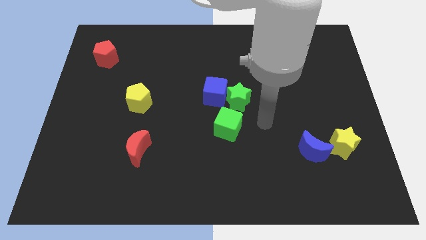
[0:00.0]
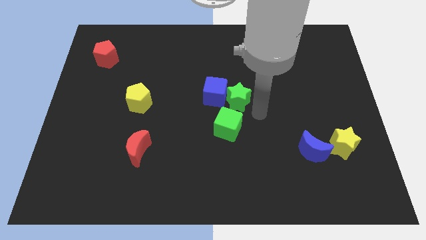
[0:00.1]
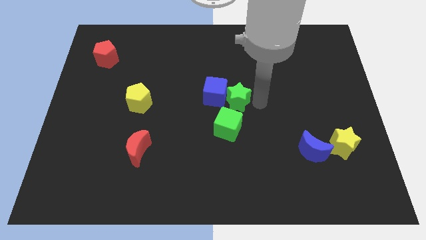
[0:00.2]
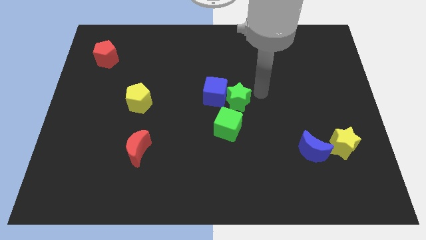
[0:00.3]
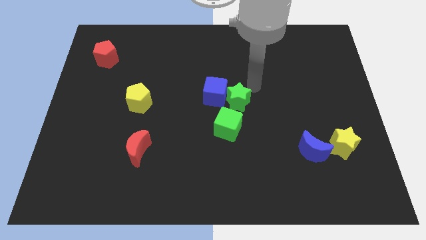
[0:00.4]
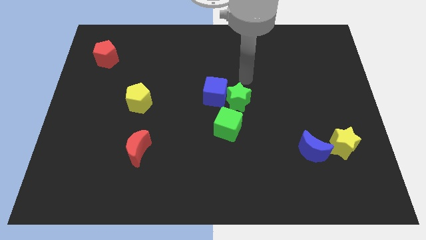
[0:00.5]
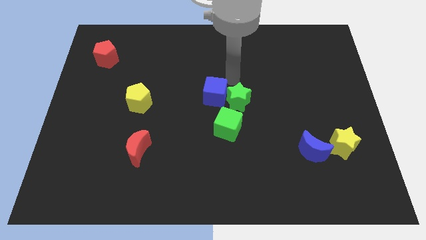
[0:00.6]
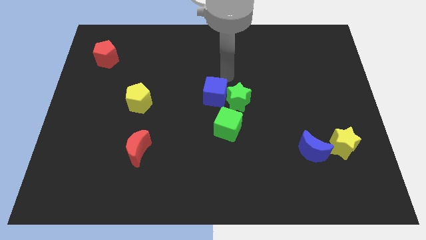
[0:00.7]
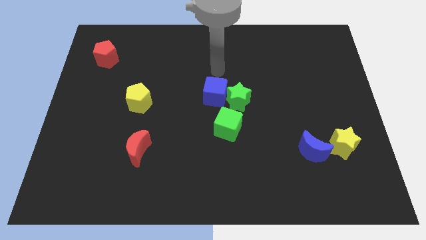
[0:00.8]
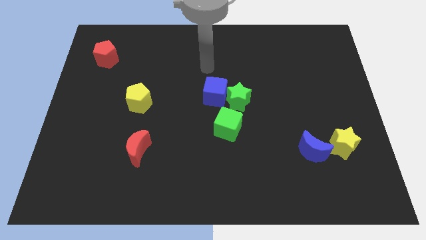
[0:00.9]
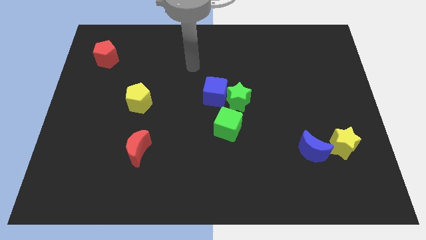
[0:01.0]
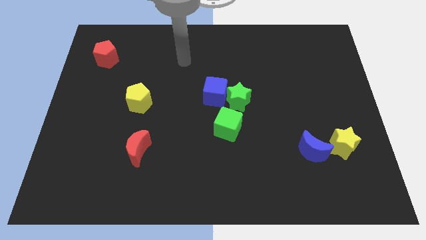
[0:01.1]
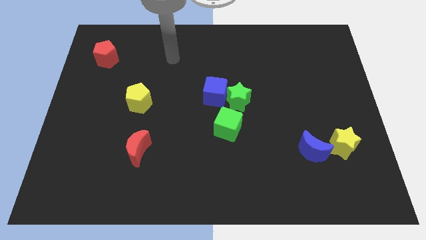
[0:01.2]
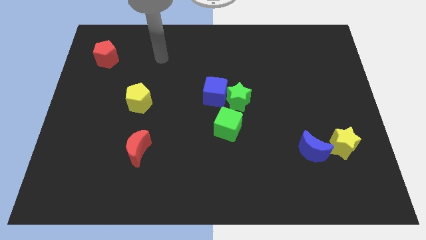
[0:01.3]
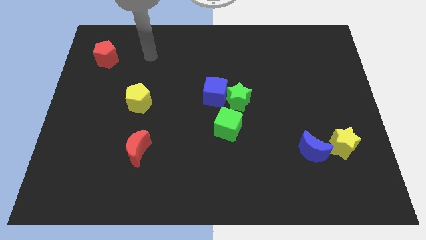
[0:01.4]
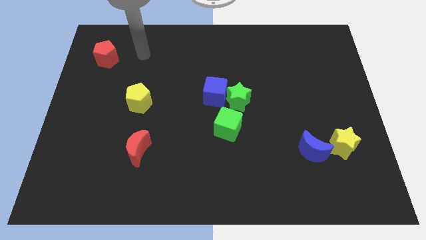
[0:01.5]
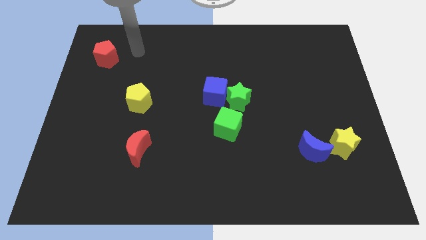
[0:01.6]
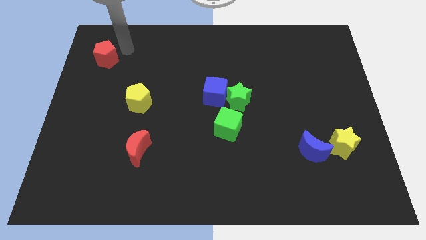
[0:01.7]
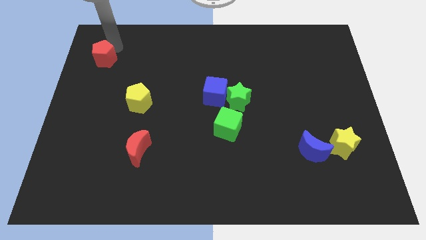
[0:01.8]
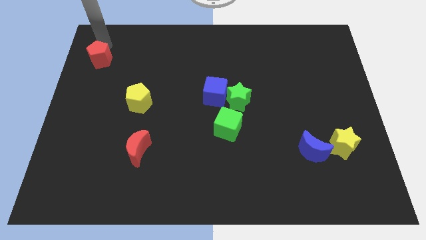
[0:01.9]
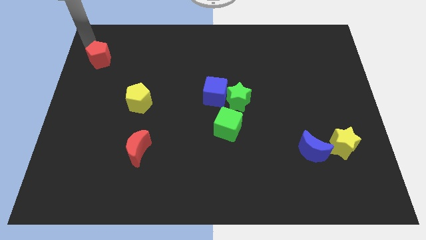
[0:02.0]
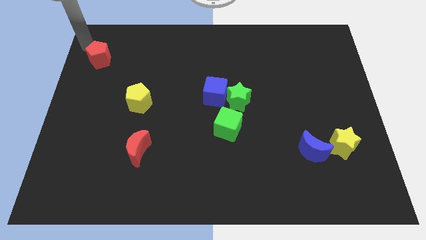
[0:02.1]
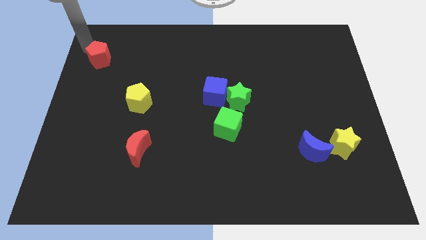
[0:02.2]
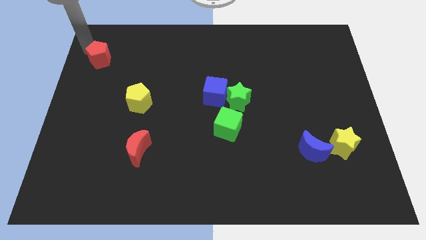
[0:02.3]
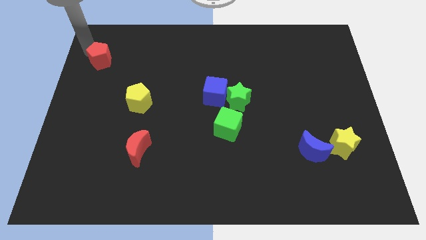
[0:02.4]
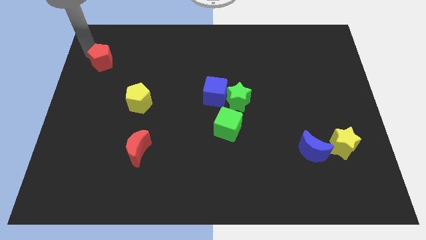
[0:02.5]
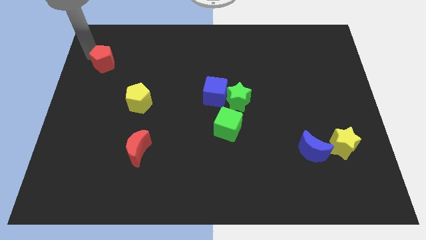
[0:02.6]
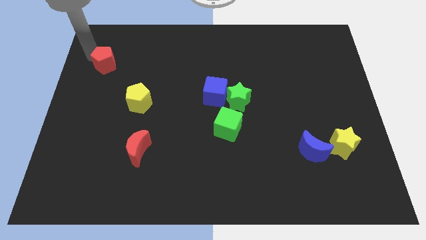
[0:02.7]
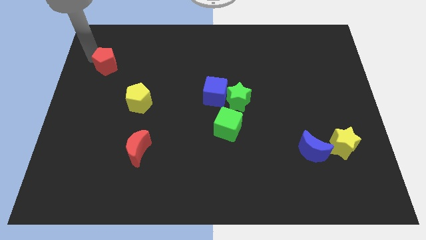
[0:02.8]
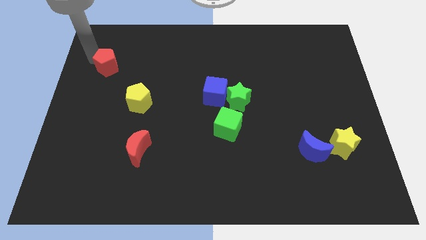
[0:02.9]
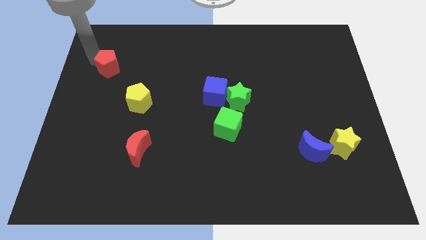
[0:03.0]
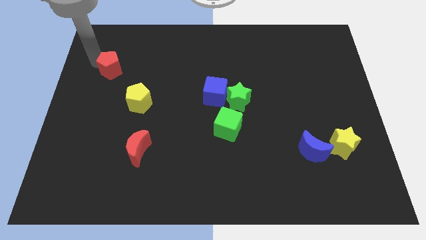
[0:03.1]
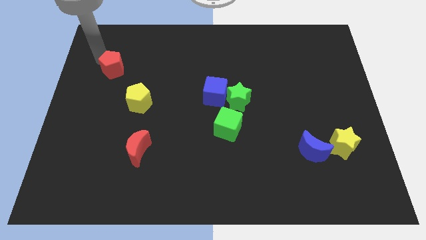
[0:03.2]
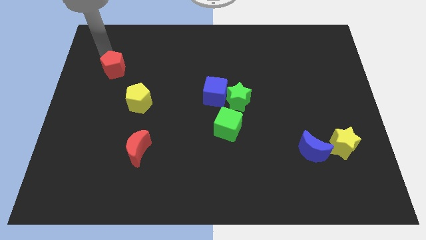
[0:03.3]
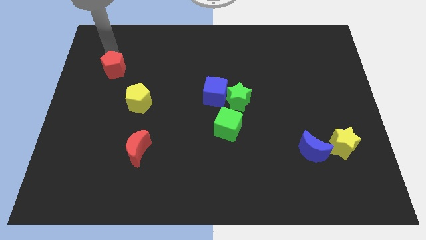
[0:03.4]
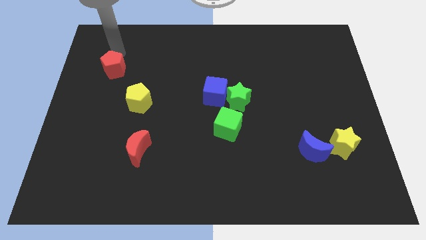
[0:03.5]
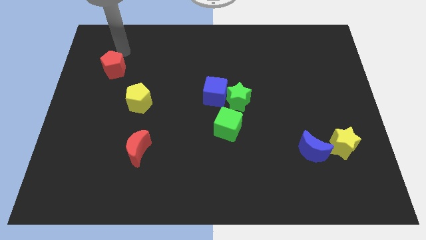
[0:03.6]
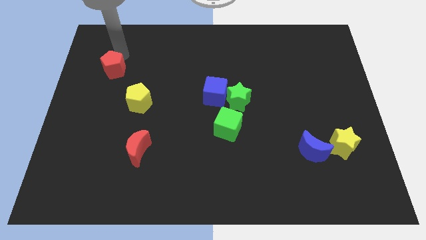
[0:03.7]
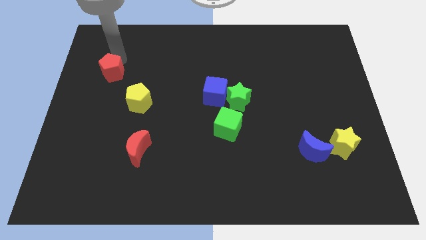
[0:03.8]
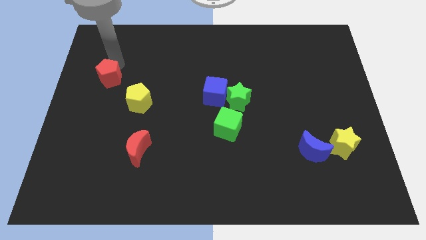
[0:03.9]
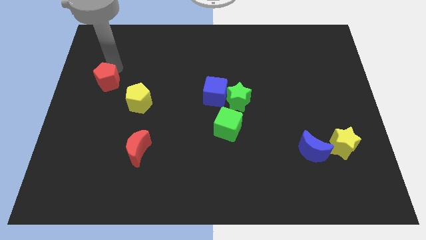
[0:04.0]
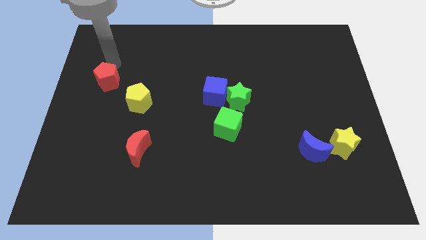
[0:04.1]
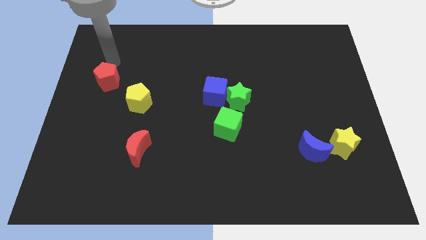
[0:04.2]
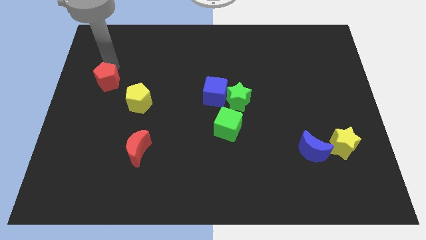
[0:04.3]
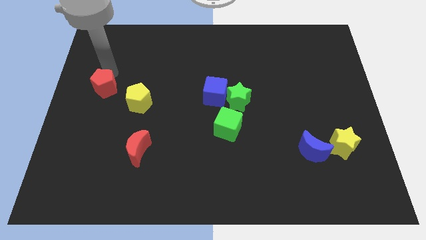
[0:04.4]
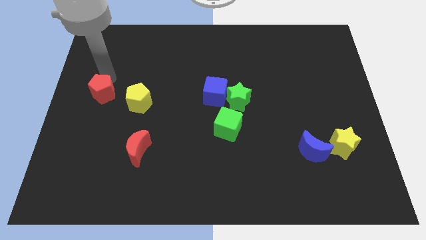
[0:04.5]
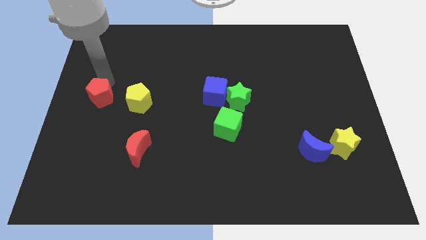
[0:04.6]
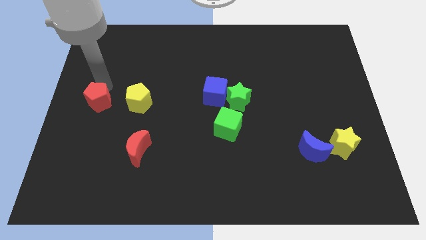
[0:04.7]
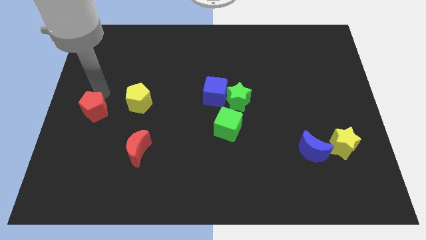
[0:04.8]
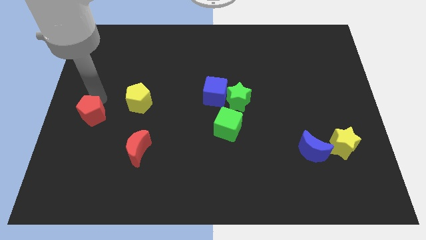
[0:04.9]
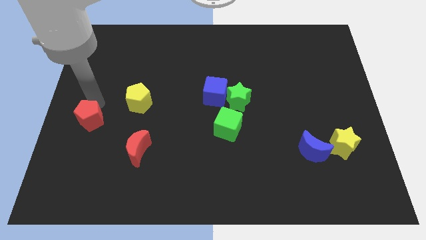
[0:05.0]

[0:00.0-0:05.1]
push the red pentagon down

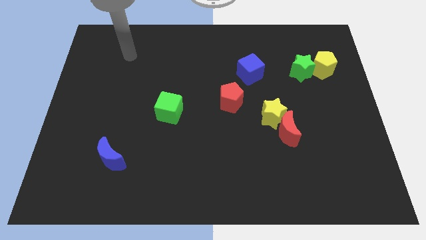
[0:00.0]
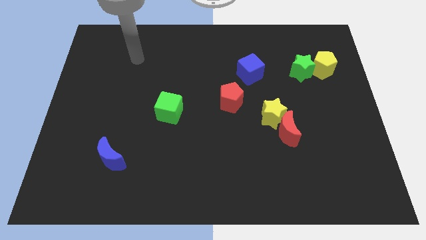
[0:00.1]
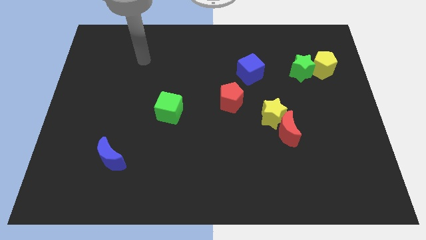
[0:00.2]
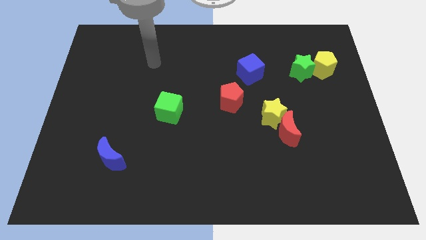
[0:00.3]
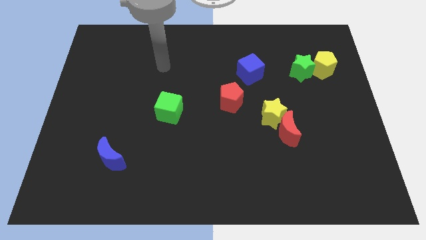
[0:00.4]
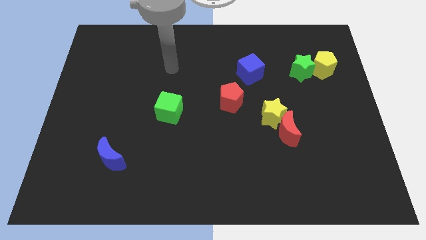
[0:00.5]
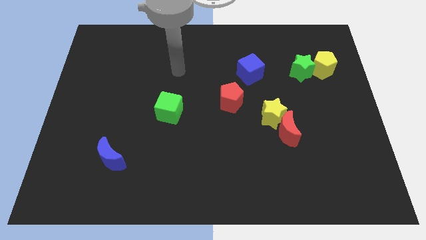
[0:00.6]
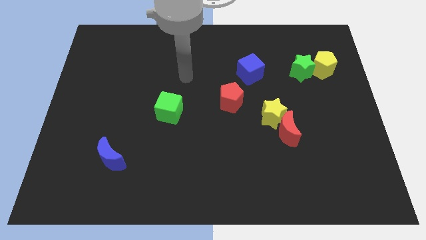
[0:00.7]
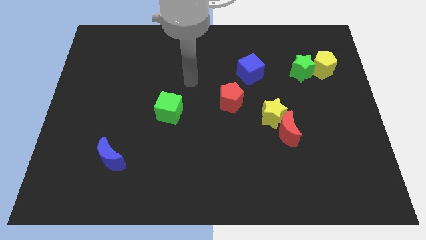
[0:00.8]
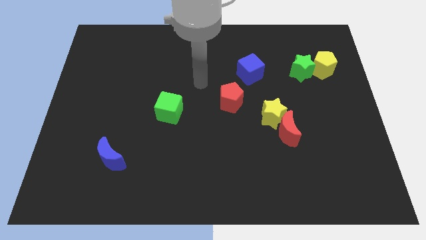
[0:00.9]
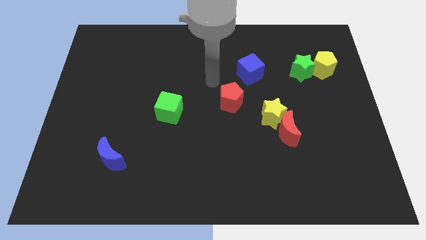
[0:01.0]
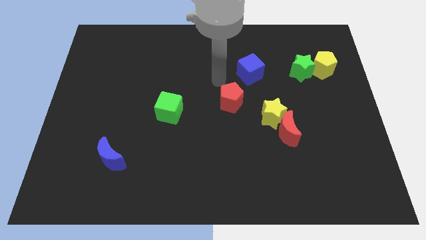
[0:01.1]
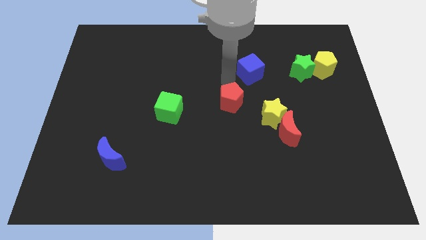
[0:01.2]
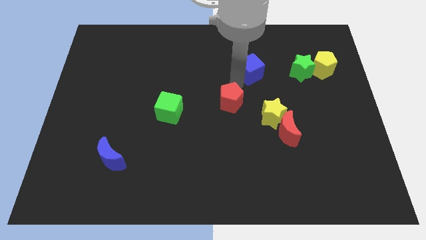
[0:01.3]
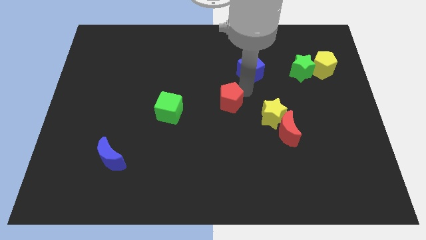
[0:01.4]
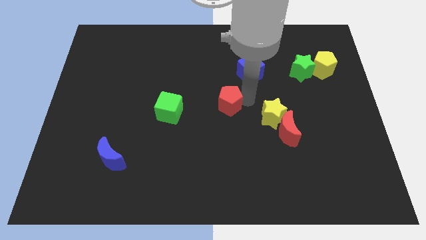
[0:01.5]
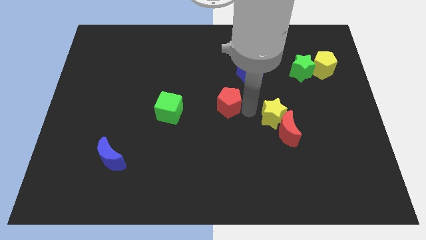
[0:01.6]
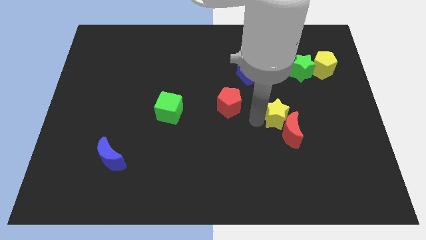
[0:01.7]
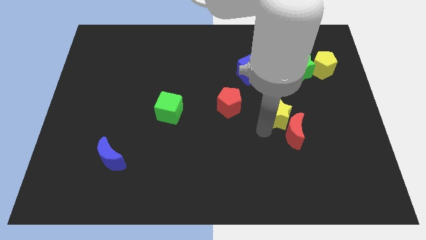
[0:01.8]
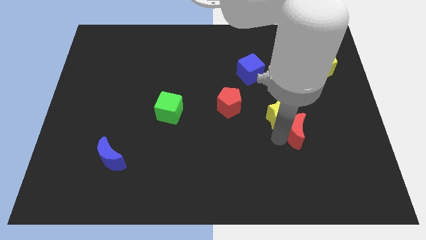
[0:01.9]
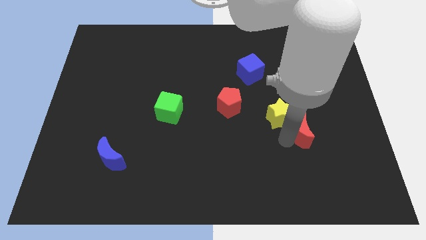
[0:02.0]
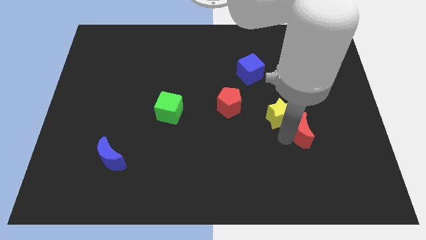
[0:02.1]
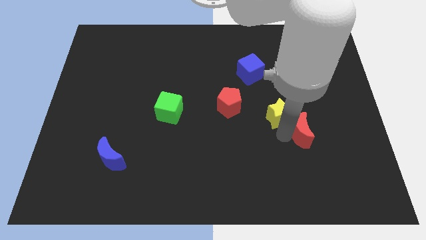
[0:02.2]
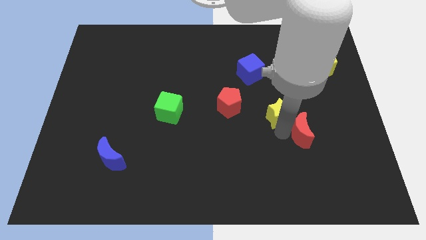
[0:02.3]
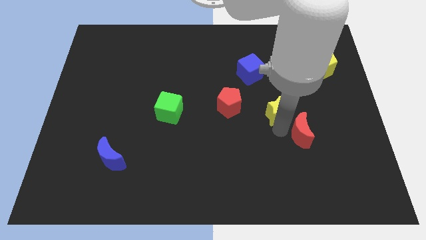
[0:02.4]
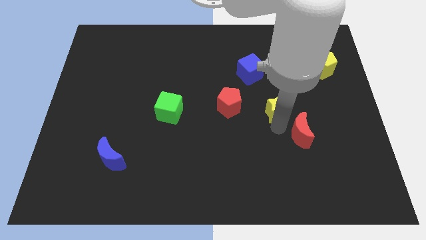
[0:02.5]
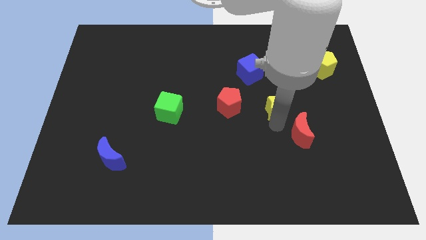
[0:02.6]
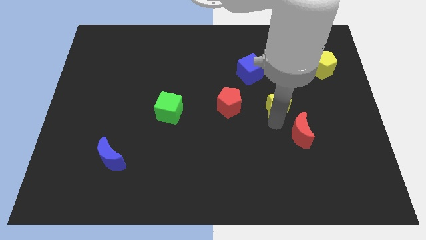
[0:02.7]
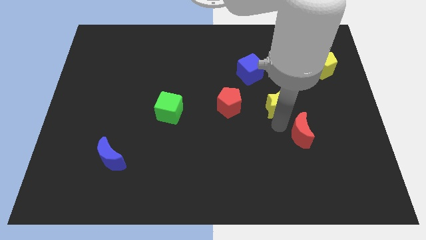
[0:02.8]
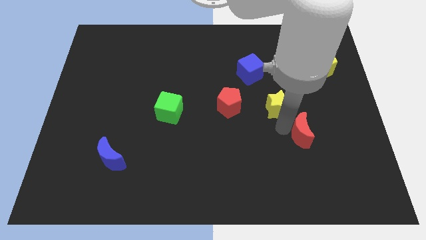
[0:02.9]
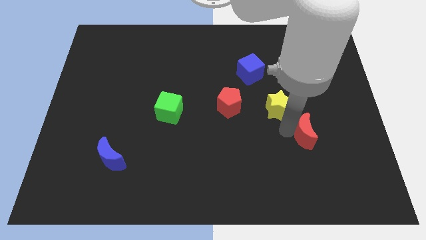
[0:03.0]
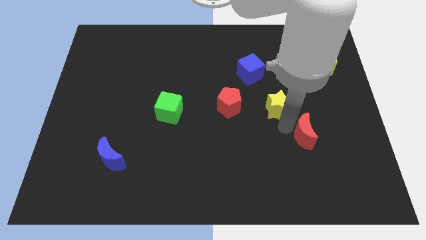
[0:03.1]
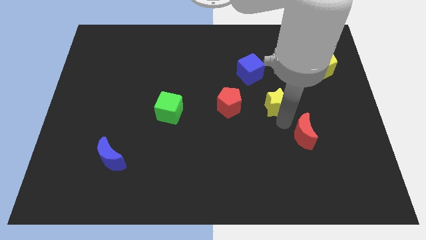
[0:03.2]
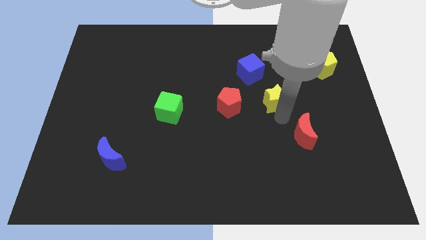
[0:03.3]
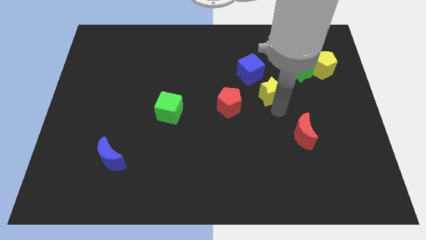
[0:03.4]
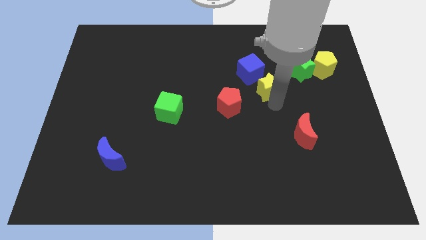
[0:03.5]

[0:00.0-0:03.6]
slightly push the yellow star up
